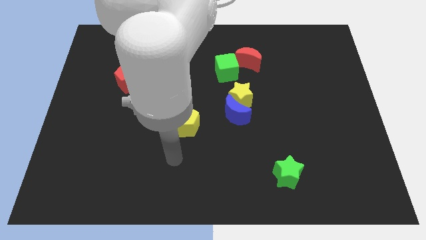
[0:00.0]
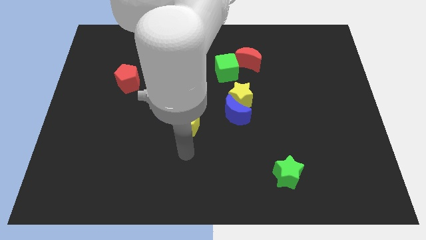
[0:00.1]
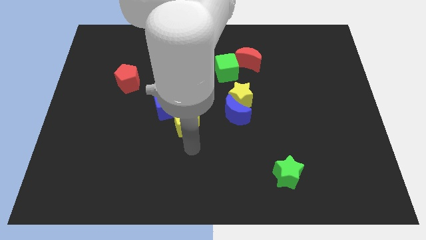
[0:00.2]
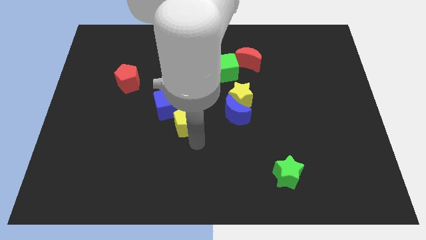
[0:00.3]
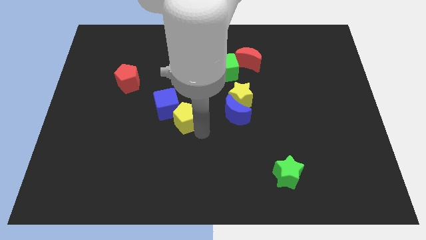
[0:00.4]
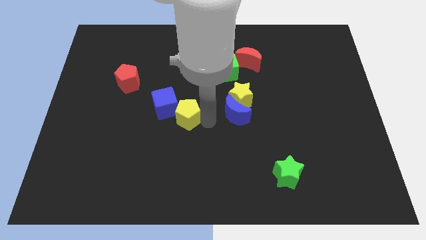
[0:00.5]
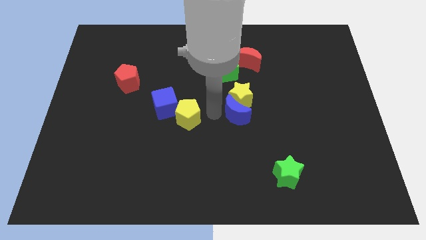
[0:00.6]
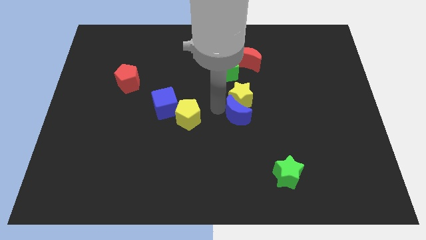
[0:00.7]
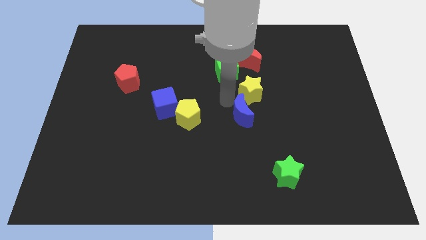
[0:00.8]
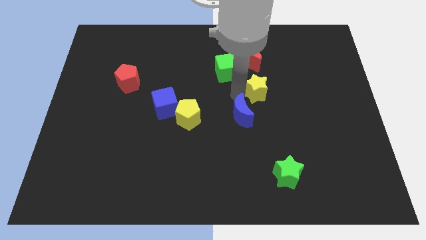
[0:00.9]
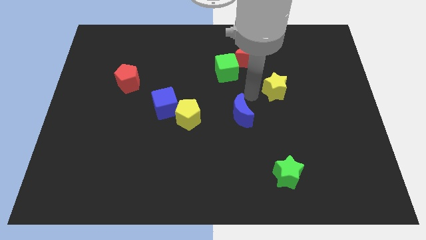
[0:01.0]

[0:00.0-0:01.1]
move the blue moon away from the yellow star

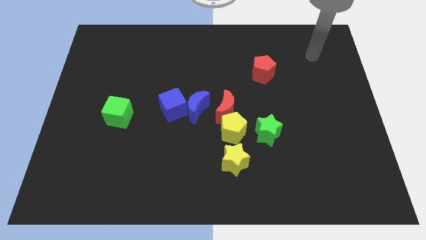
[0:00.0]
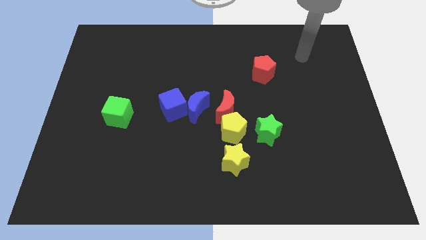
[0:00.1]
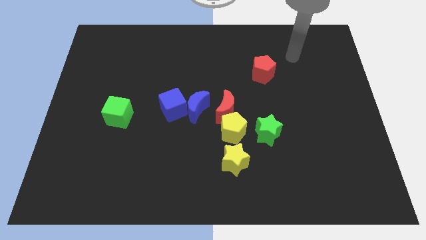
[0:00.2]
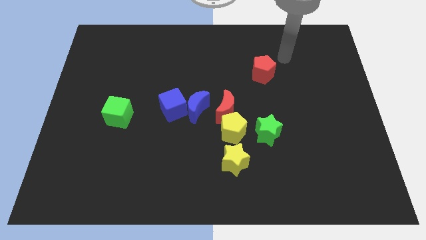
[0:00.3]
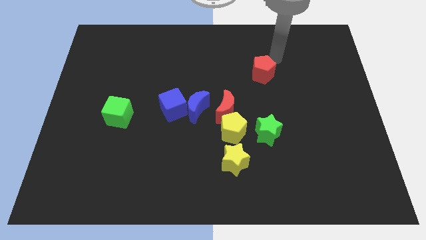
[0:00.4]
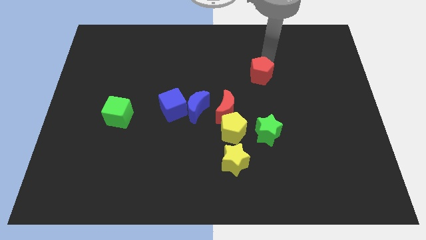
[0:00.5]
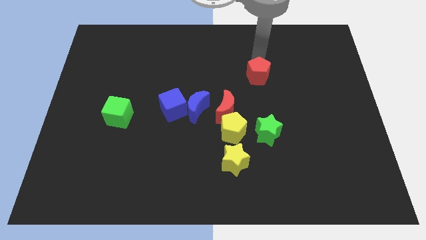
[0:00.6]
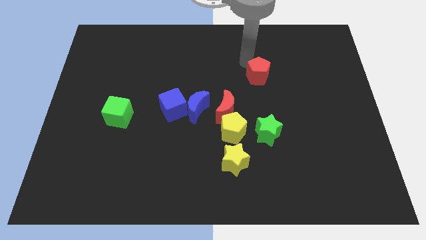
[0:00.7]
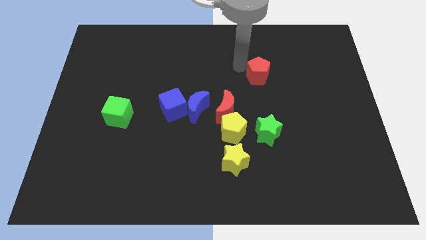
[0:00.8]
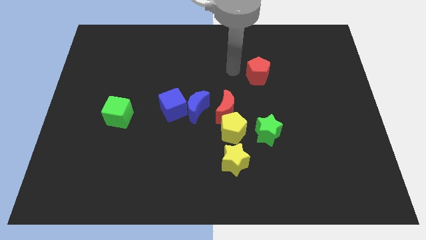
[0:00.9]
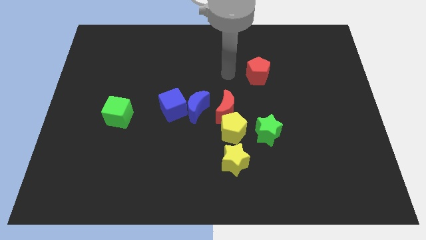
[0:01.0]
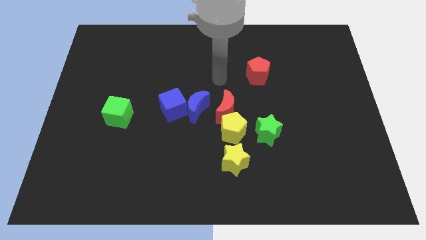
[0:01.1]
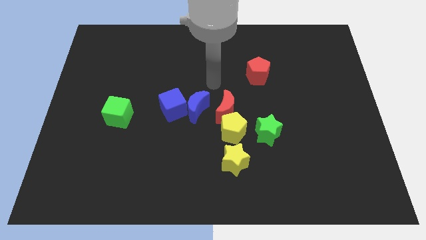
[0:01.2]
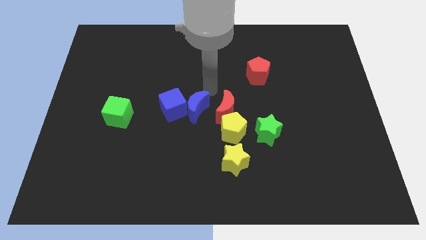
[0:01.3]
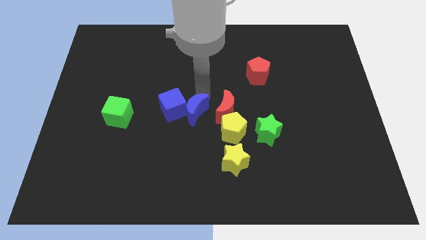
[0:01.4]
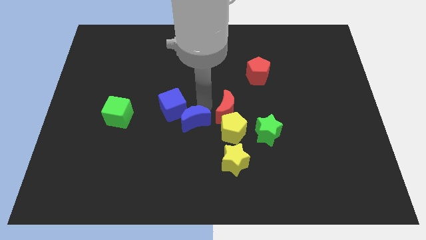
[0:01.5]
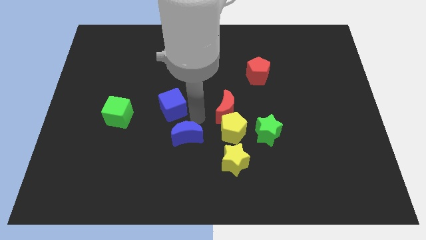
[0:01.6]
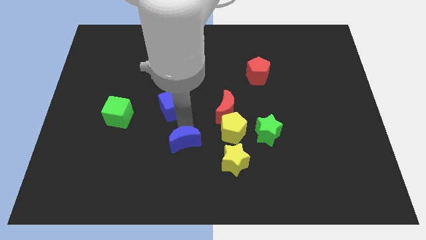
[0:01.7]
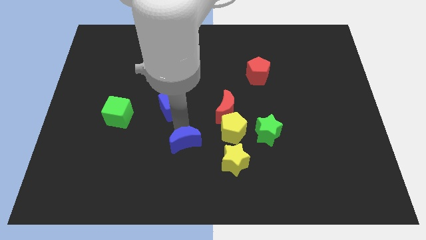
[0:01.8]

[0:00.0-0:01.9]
move the blue cube away from the blue moon

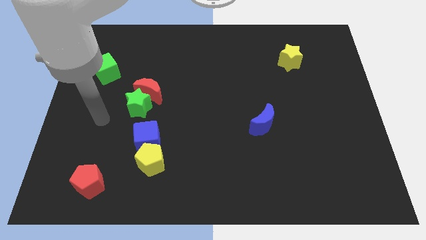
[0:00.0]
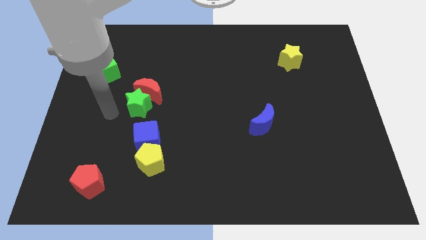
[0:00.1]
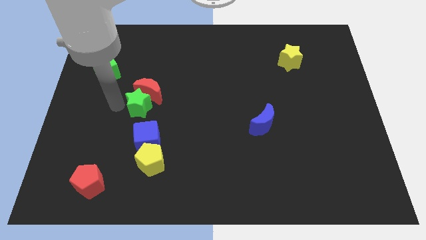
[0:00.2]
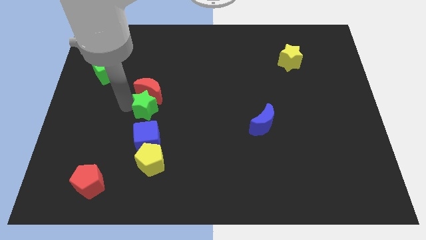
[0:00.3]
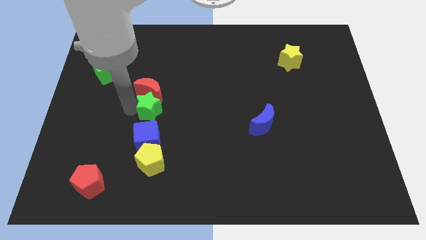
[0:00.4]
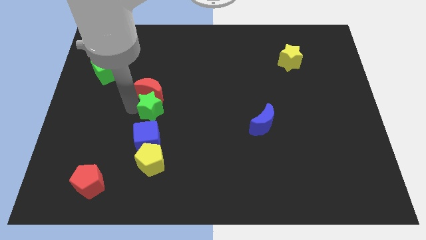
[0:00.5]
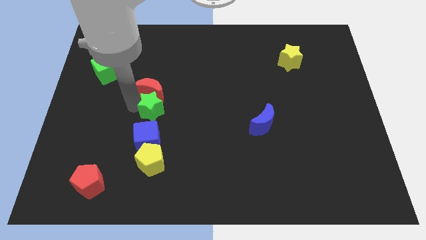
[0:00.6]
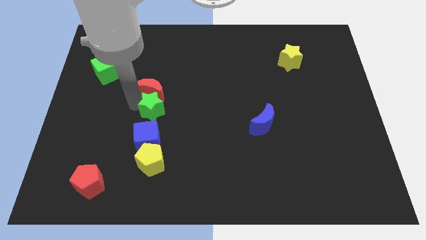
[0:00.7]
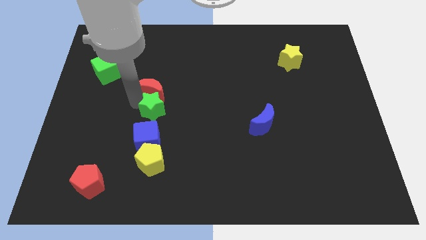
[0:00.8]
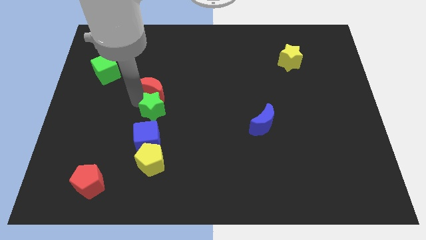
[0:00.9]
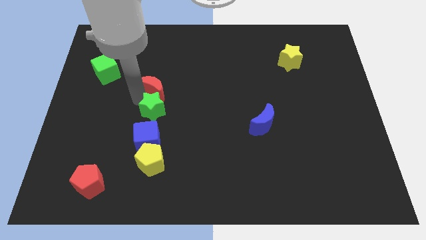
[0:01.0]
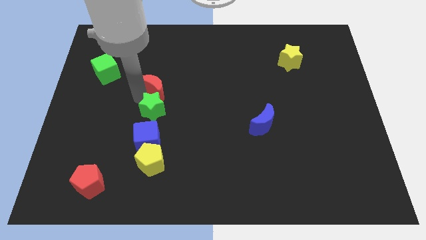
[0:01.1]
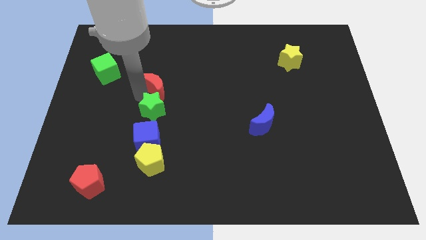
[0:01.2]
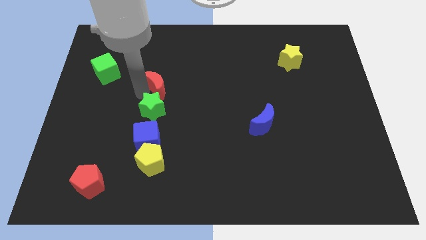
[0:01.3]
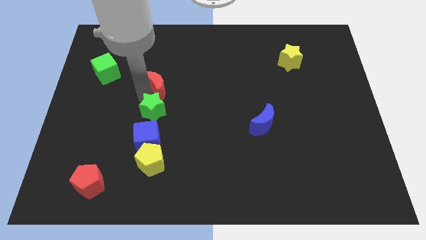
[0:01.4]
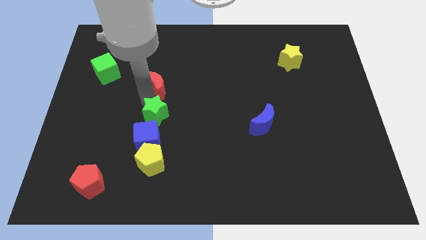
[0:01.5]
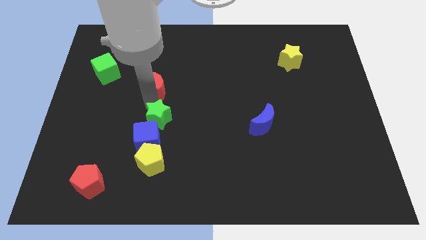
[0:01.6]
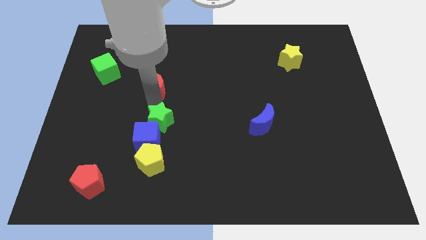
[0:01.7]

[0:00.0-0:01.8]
separate the red moon from the green star

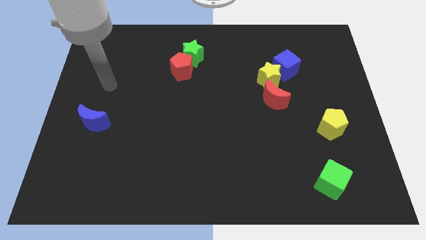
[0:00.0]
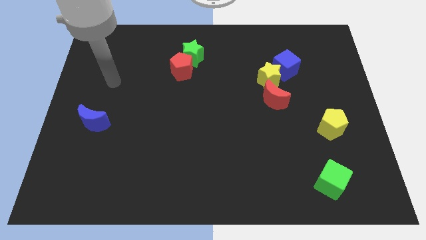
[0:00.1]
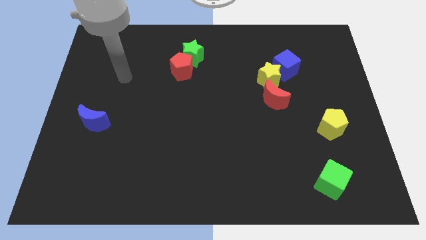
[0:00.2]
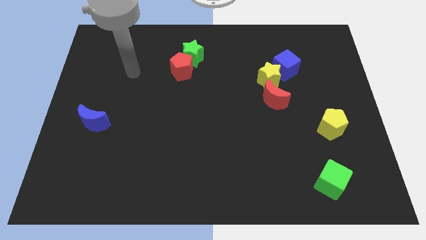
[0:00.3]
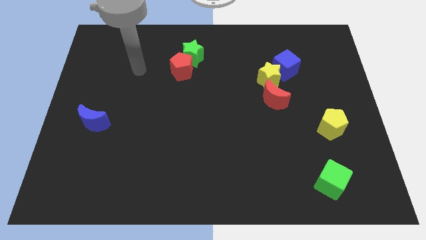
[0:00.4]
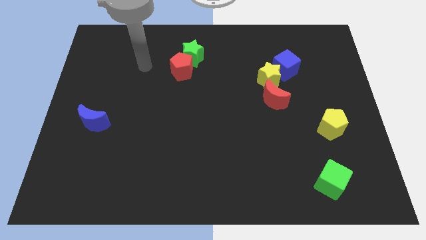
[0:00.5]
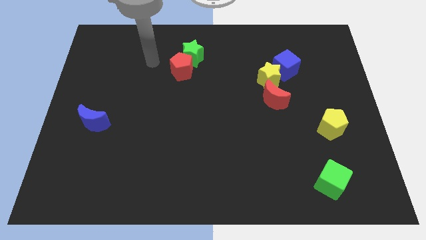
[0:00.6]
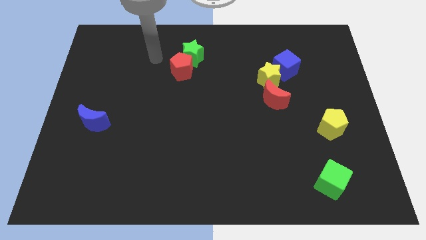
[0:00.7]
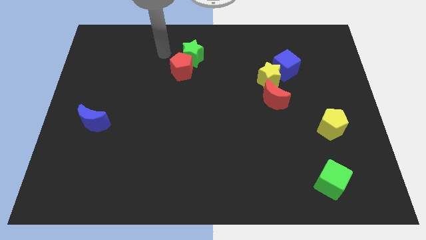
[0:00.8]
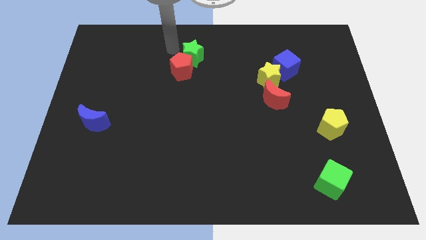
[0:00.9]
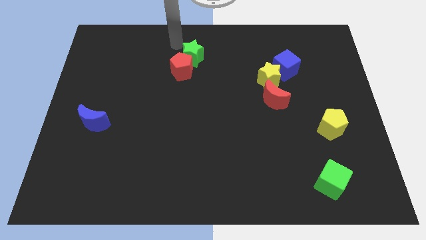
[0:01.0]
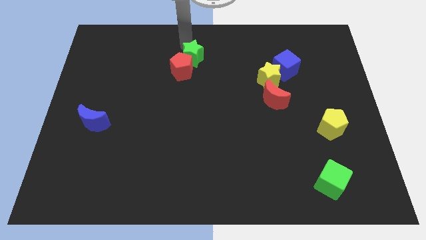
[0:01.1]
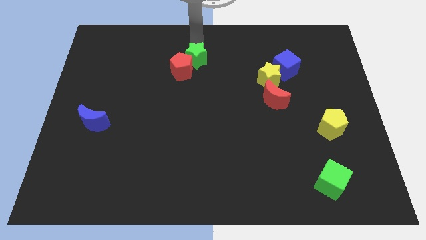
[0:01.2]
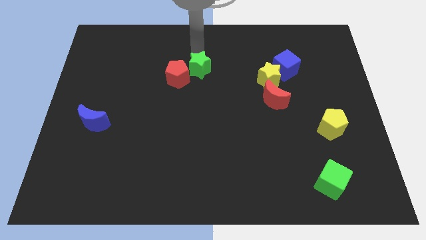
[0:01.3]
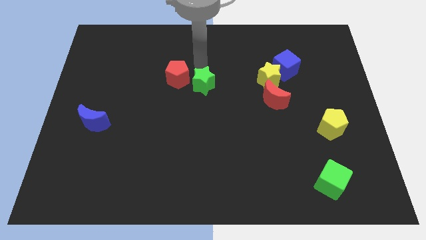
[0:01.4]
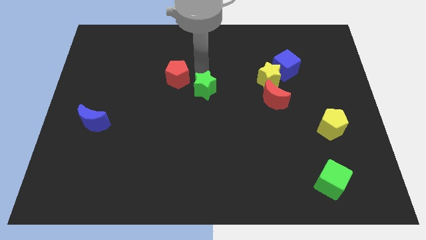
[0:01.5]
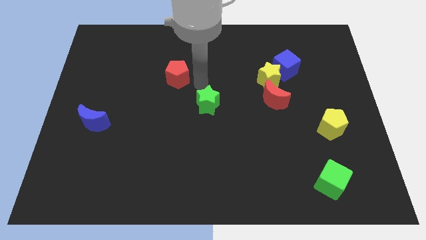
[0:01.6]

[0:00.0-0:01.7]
move the red pentagon away from the green star

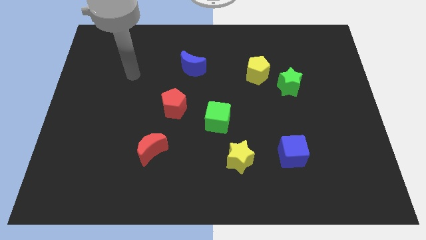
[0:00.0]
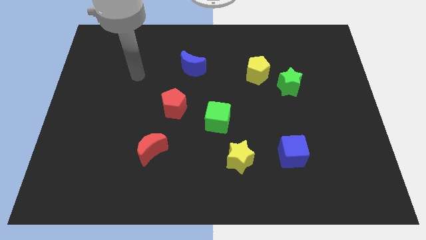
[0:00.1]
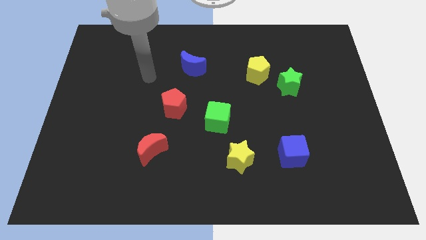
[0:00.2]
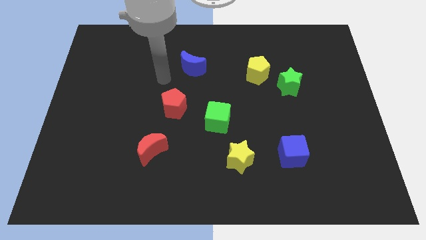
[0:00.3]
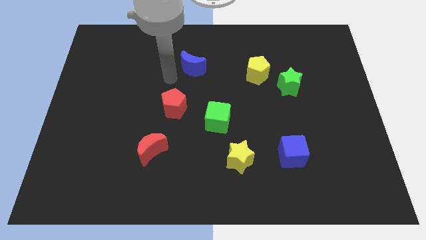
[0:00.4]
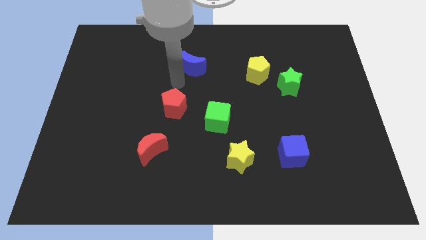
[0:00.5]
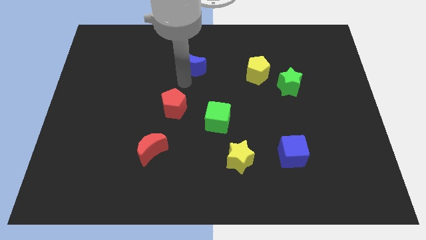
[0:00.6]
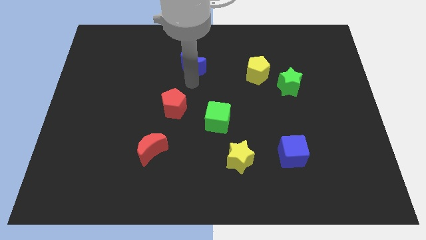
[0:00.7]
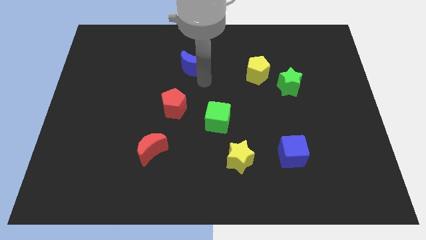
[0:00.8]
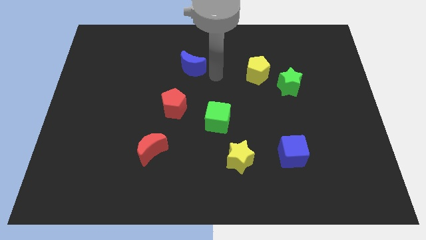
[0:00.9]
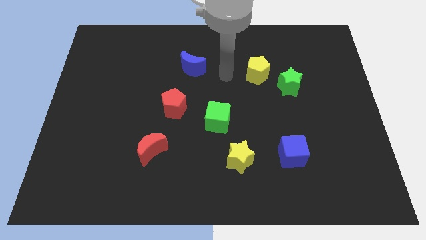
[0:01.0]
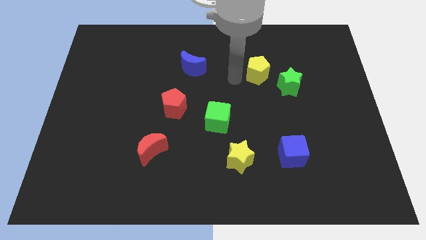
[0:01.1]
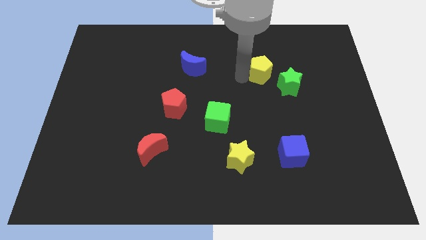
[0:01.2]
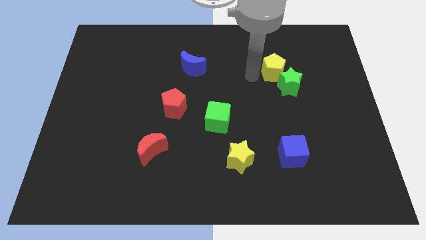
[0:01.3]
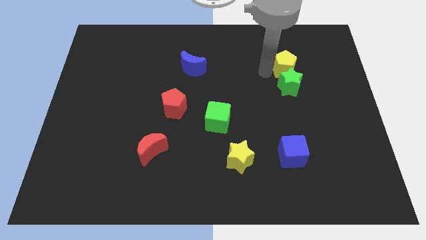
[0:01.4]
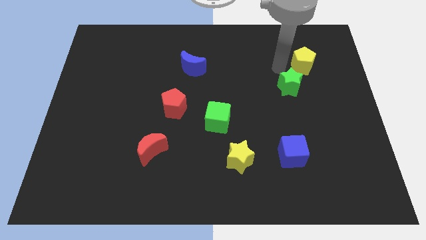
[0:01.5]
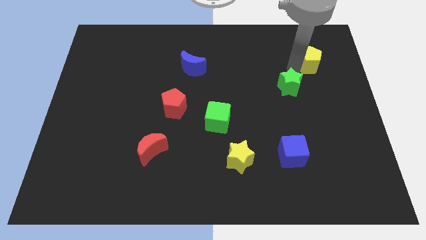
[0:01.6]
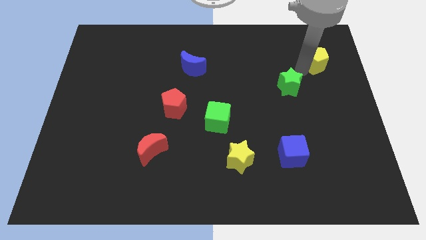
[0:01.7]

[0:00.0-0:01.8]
pull the green star apart from the yellow pentagon

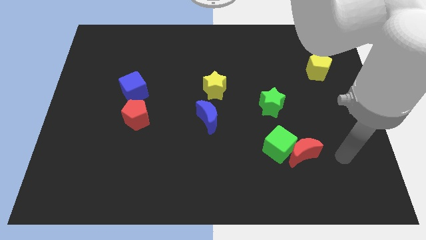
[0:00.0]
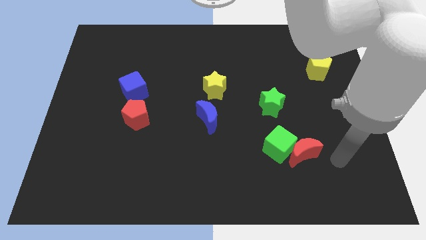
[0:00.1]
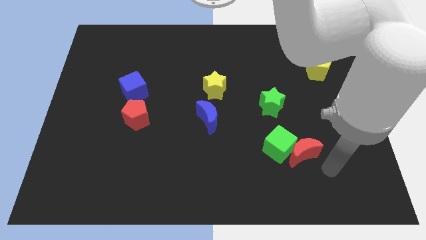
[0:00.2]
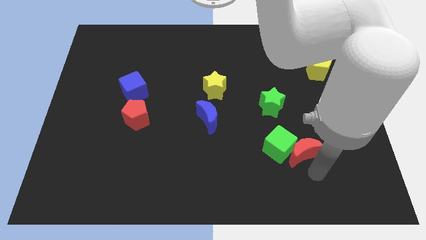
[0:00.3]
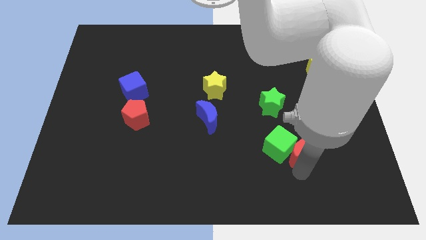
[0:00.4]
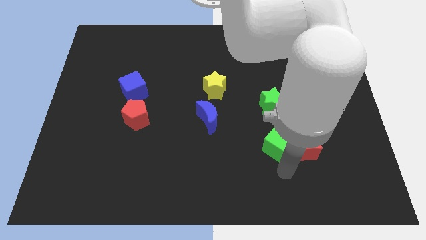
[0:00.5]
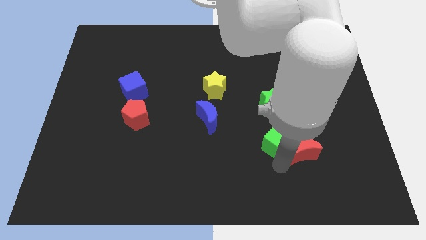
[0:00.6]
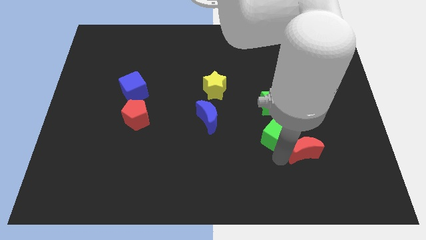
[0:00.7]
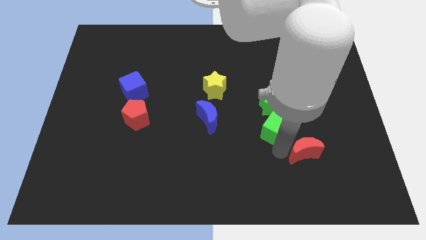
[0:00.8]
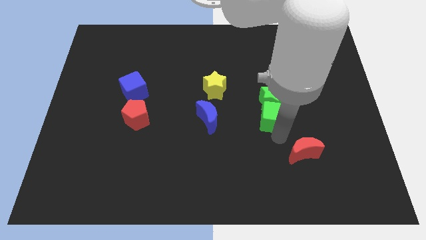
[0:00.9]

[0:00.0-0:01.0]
separate the red moon from the green cube

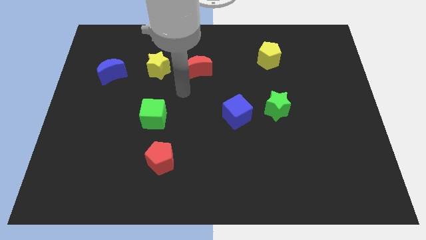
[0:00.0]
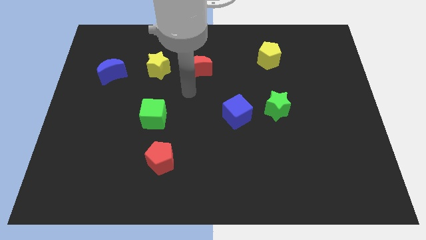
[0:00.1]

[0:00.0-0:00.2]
pull the blue cube apart from the green star
